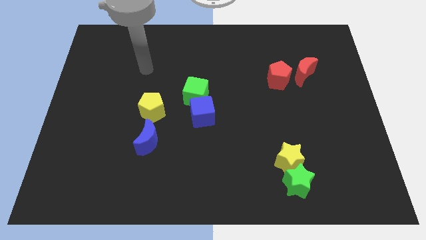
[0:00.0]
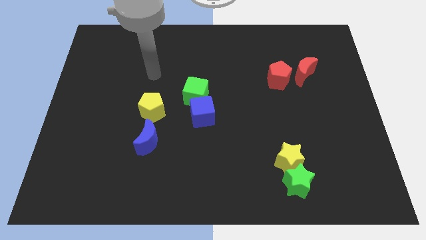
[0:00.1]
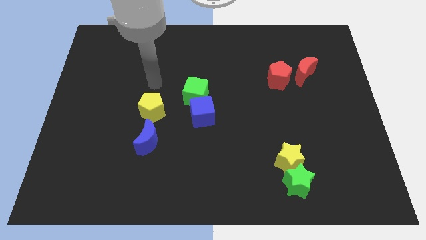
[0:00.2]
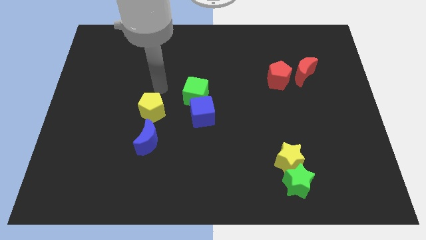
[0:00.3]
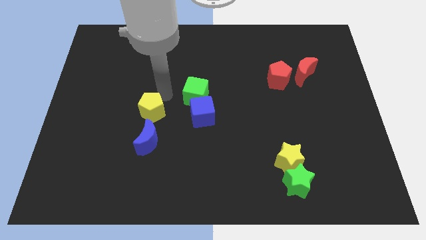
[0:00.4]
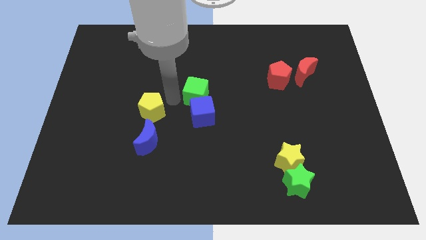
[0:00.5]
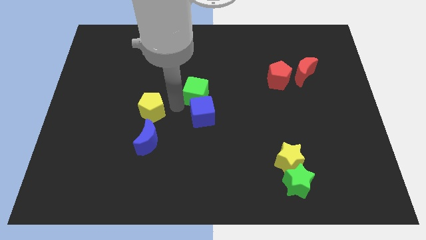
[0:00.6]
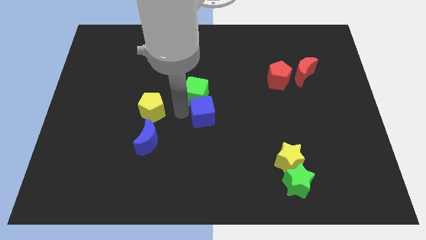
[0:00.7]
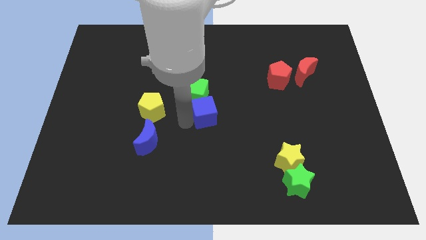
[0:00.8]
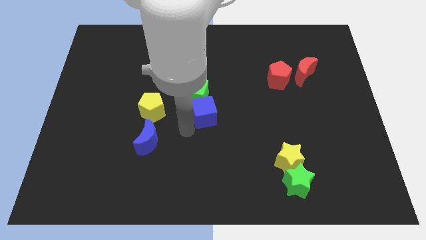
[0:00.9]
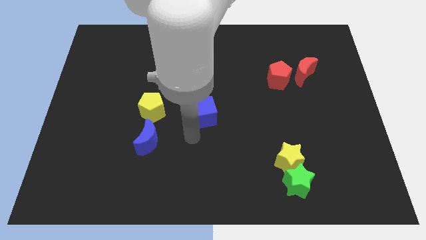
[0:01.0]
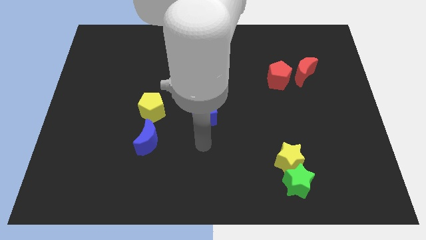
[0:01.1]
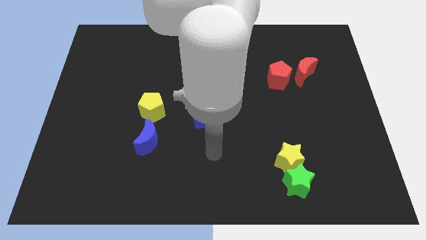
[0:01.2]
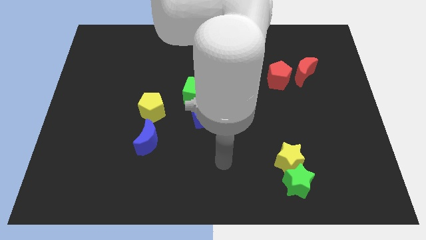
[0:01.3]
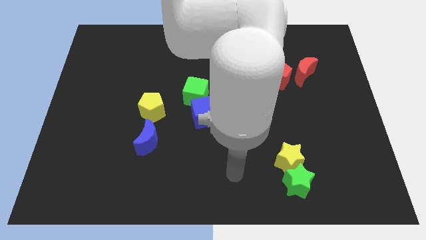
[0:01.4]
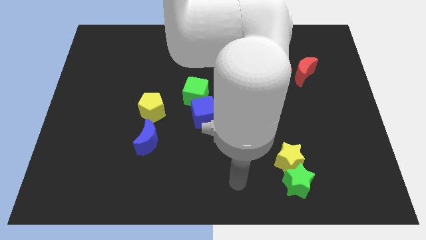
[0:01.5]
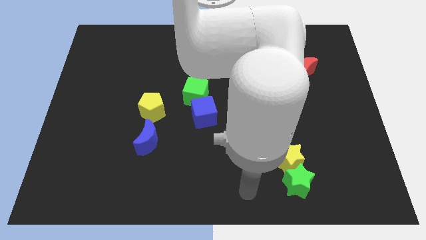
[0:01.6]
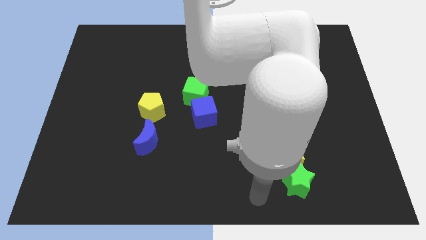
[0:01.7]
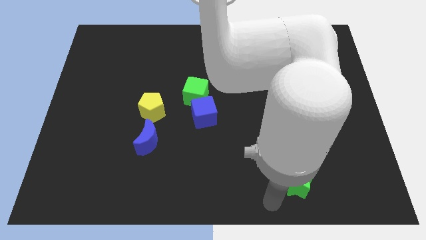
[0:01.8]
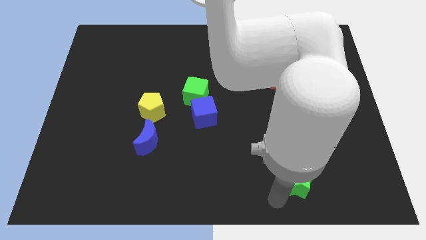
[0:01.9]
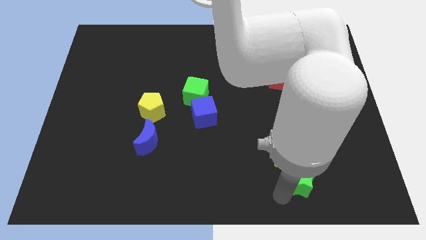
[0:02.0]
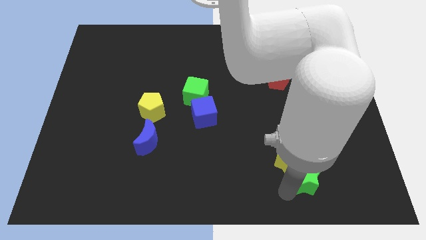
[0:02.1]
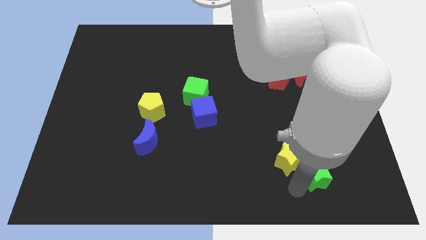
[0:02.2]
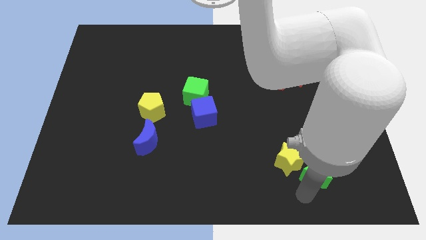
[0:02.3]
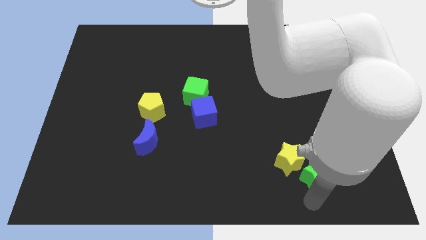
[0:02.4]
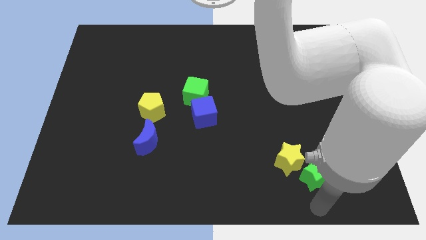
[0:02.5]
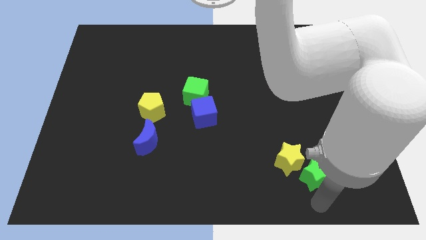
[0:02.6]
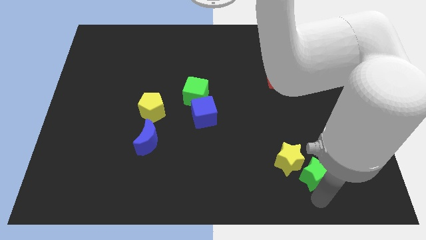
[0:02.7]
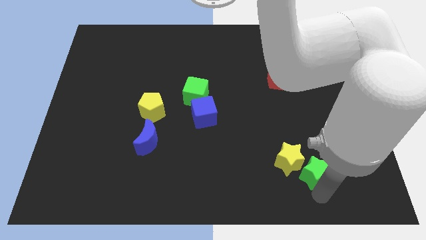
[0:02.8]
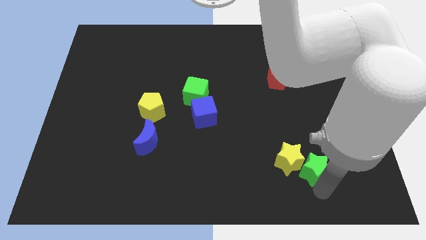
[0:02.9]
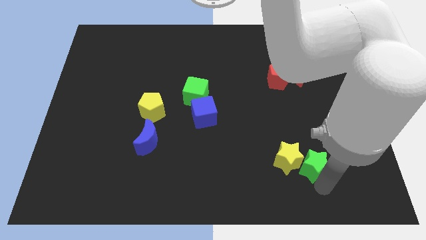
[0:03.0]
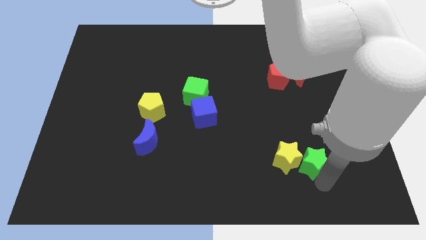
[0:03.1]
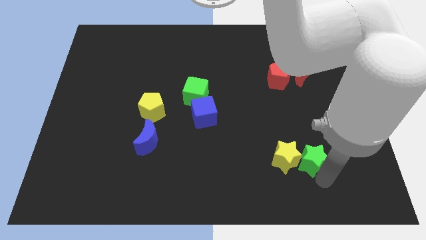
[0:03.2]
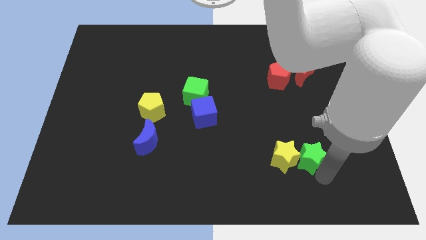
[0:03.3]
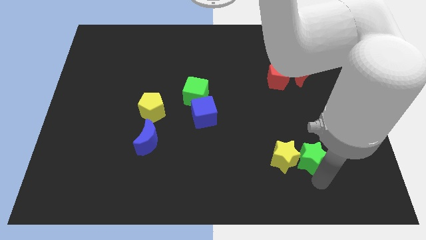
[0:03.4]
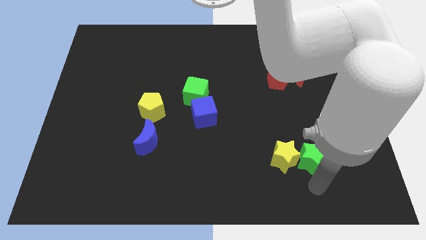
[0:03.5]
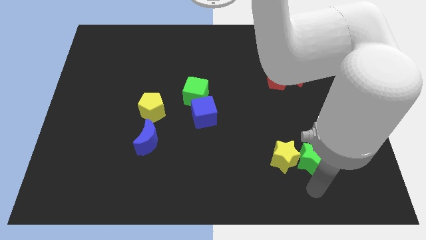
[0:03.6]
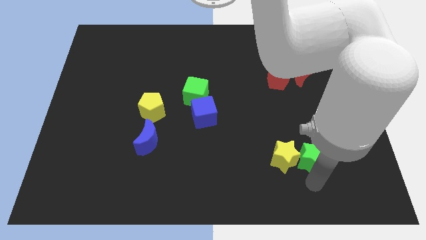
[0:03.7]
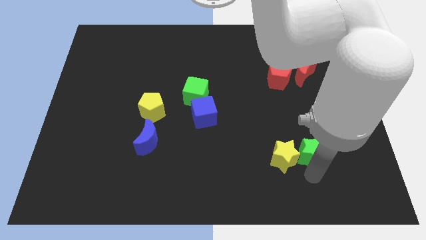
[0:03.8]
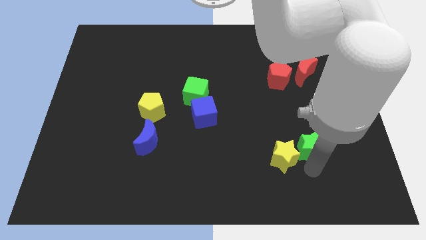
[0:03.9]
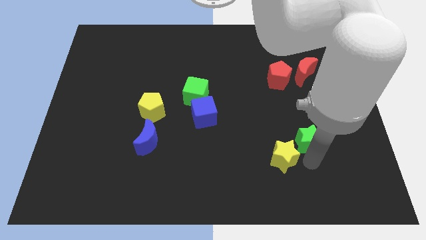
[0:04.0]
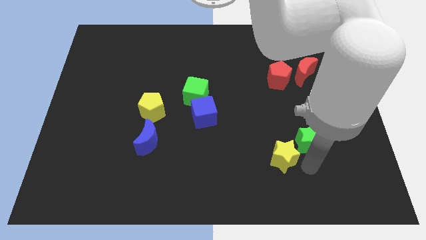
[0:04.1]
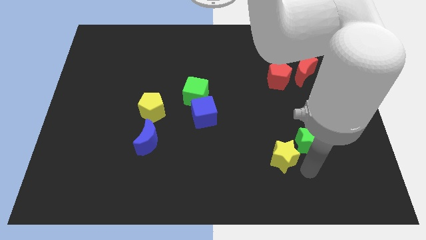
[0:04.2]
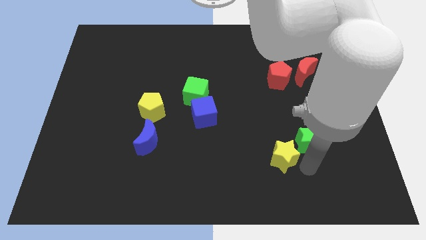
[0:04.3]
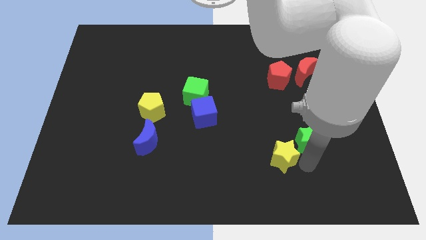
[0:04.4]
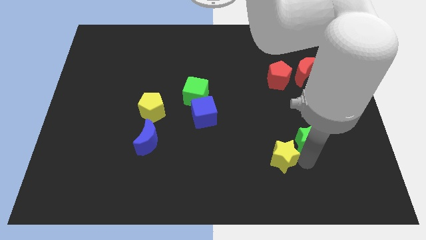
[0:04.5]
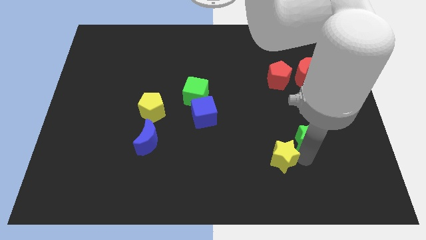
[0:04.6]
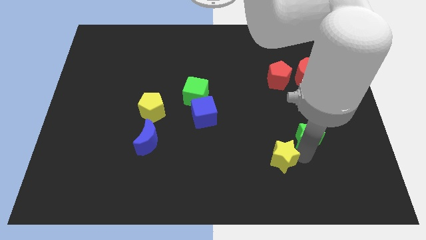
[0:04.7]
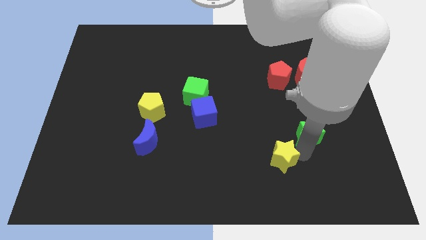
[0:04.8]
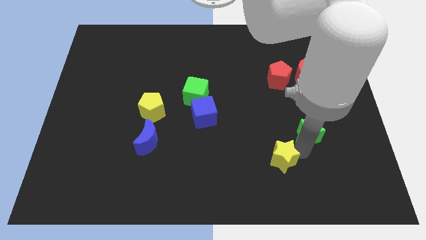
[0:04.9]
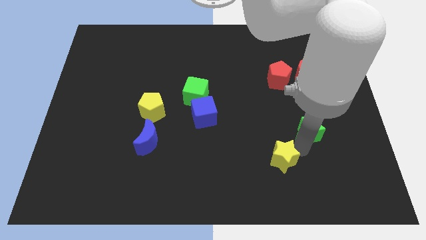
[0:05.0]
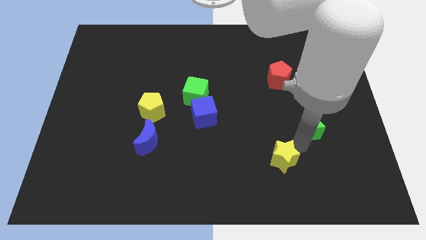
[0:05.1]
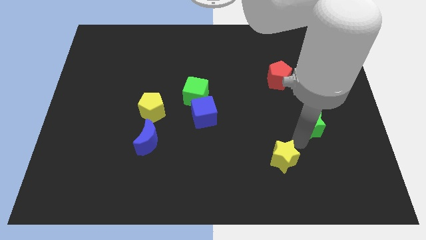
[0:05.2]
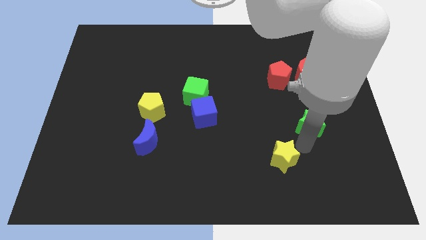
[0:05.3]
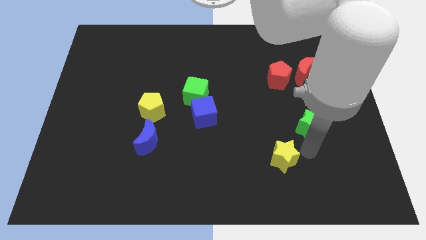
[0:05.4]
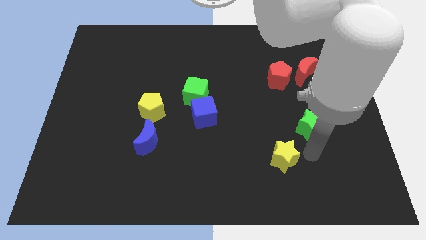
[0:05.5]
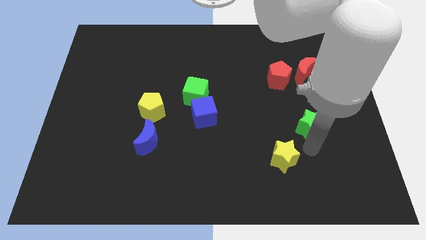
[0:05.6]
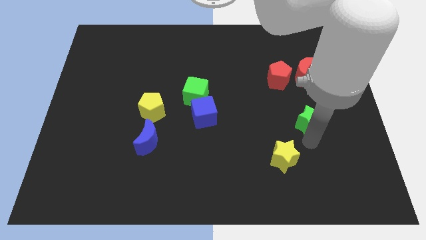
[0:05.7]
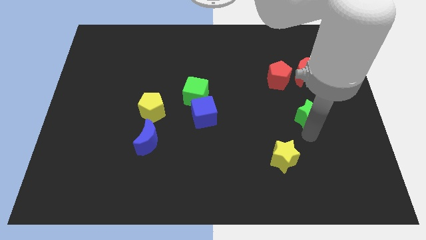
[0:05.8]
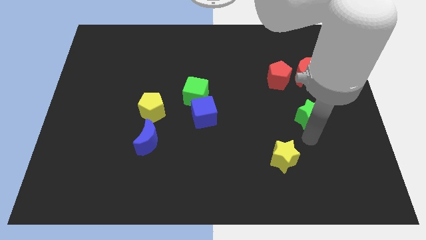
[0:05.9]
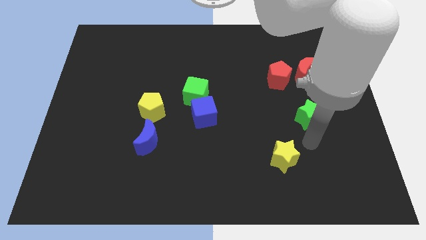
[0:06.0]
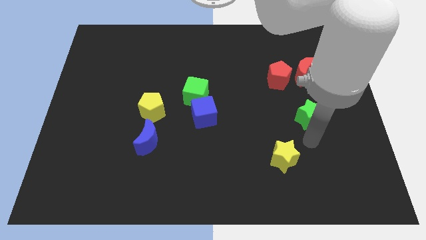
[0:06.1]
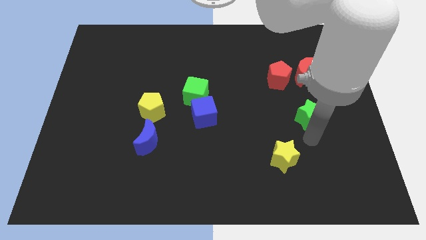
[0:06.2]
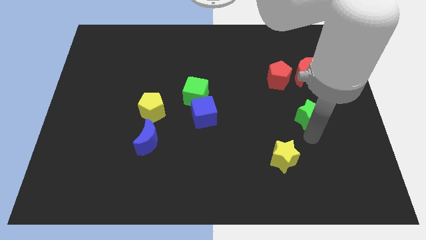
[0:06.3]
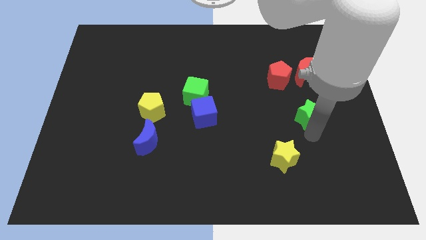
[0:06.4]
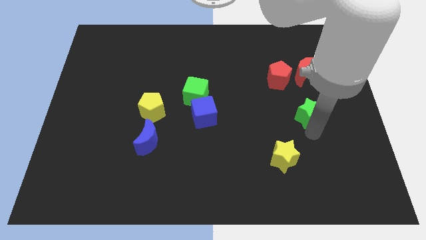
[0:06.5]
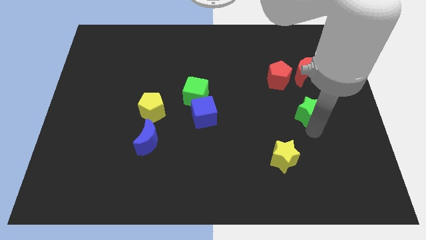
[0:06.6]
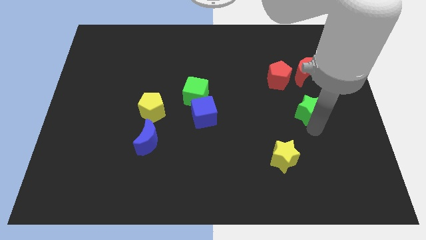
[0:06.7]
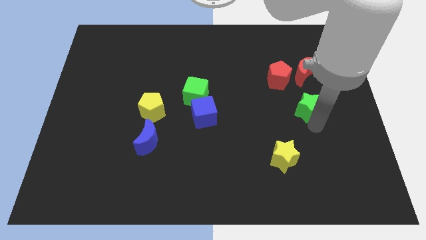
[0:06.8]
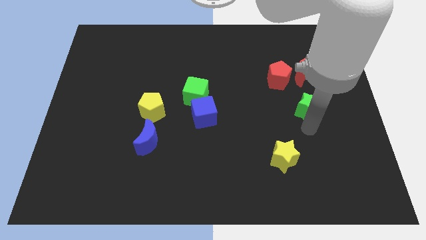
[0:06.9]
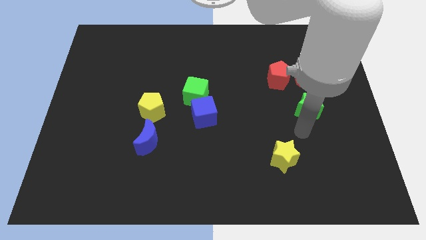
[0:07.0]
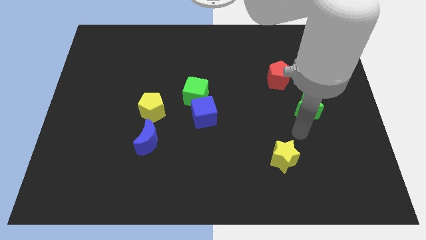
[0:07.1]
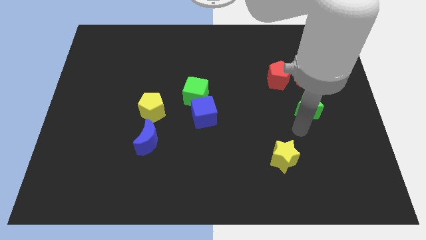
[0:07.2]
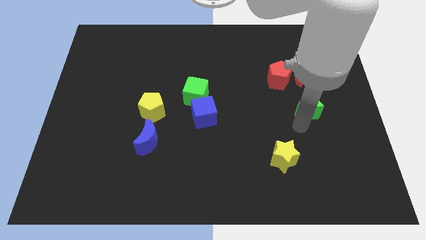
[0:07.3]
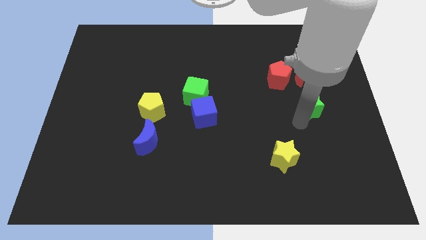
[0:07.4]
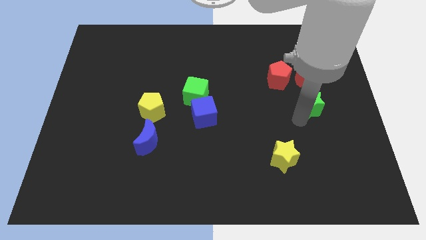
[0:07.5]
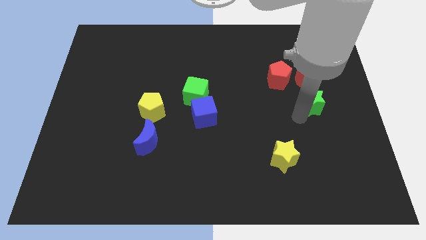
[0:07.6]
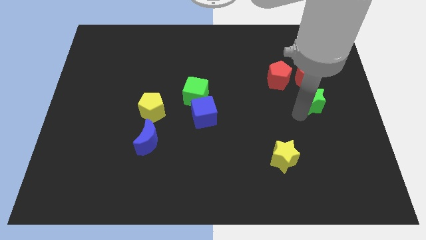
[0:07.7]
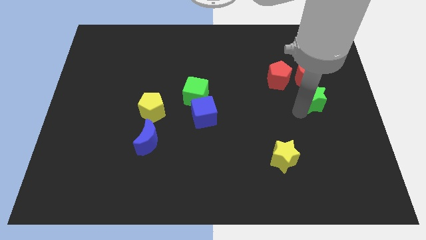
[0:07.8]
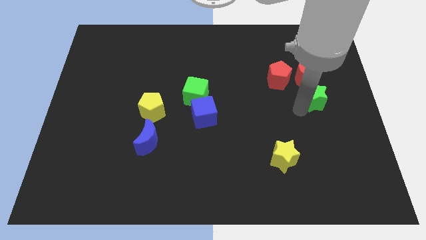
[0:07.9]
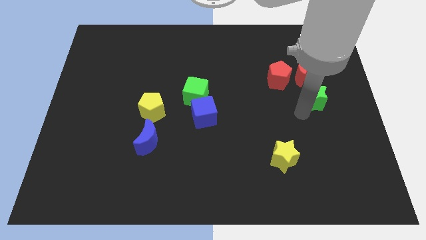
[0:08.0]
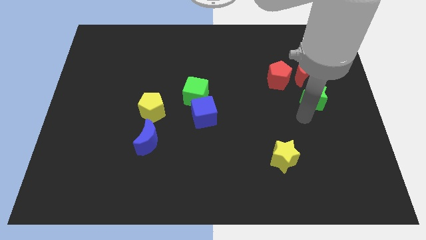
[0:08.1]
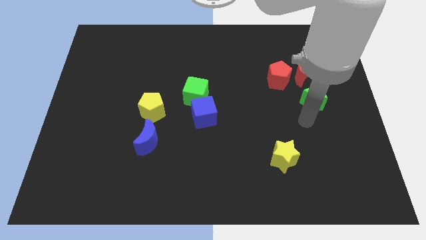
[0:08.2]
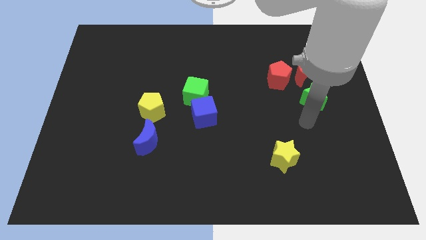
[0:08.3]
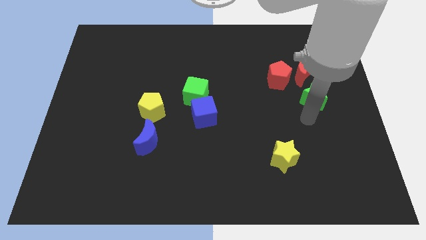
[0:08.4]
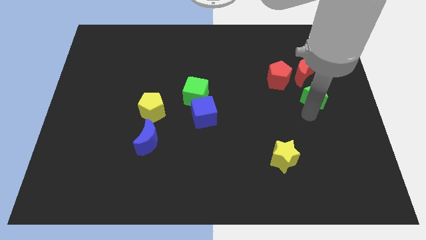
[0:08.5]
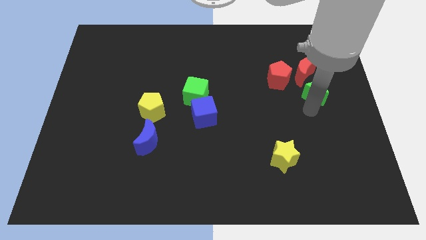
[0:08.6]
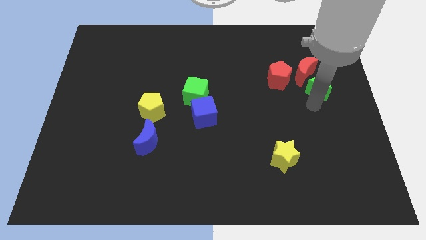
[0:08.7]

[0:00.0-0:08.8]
push the green star to the red moon
